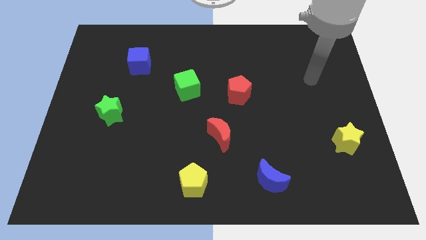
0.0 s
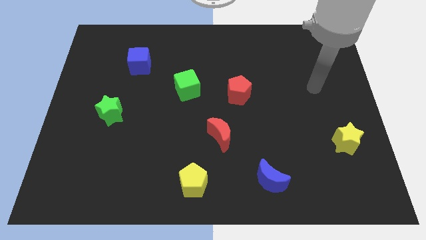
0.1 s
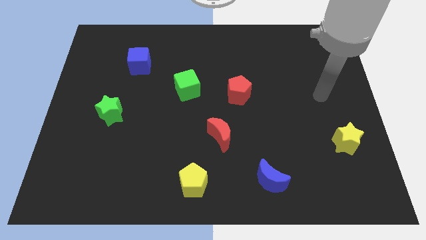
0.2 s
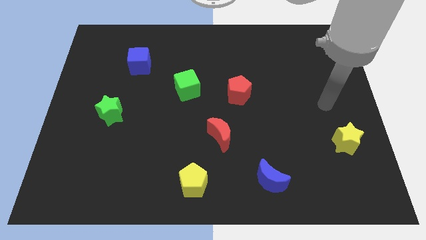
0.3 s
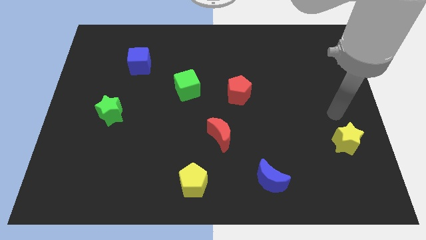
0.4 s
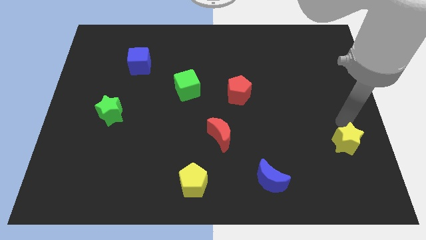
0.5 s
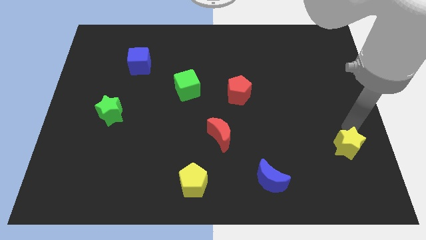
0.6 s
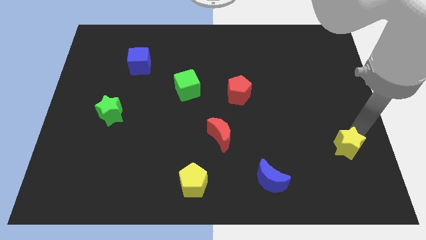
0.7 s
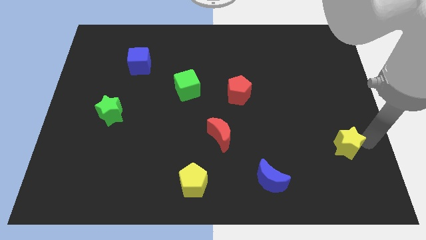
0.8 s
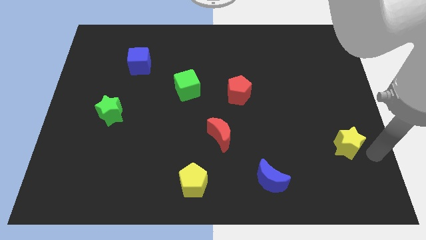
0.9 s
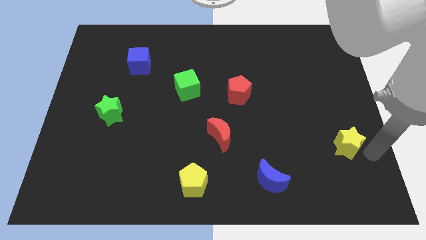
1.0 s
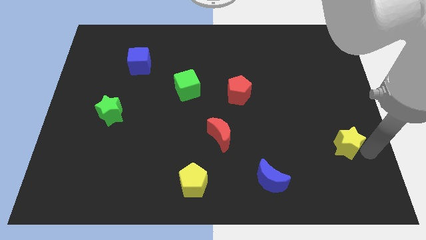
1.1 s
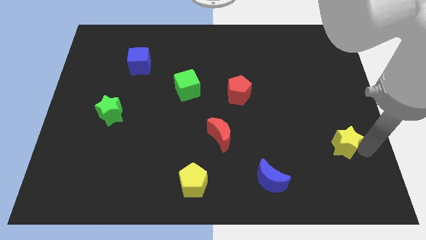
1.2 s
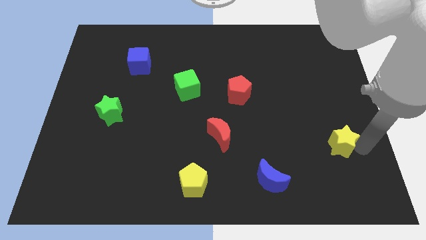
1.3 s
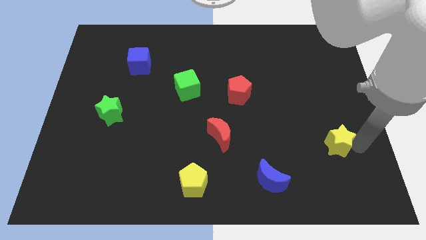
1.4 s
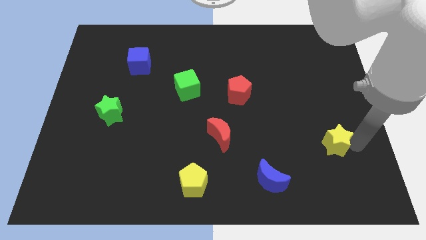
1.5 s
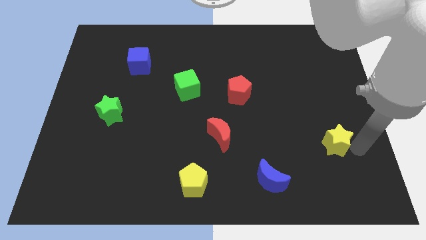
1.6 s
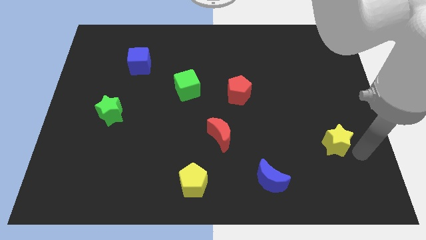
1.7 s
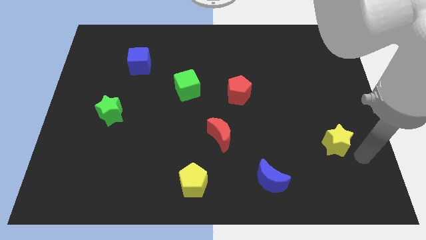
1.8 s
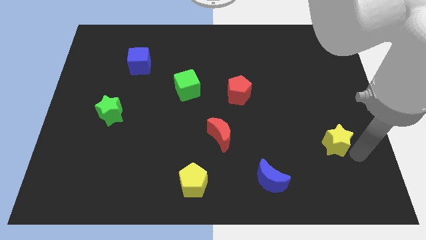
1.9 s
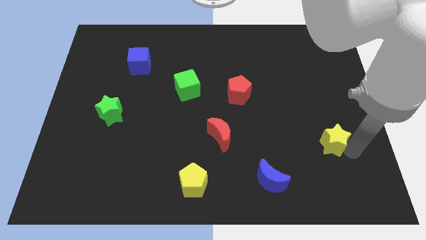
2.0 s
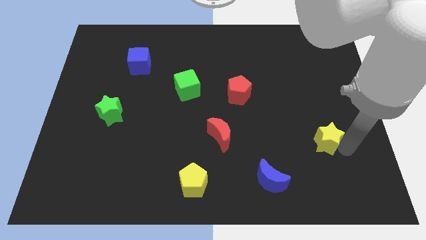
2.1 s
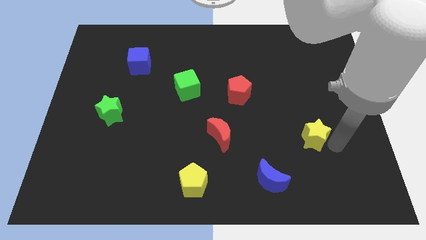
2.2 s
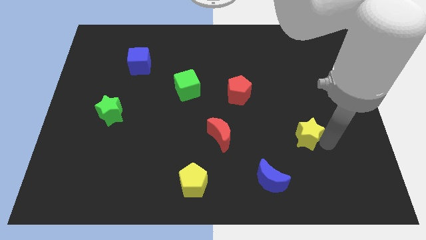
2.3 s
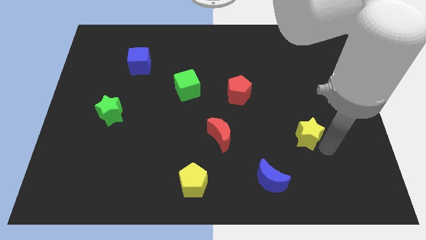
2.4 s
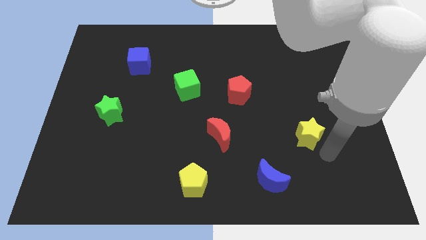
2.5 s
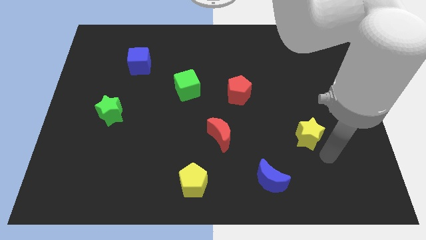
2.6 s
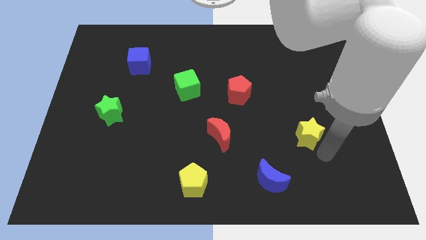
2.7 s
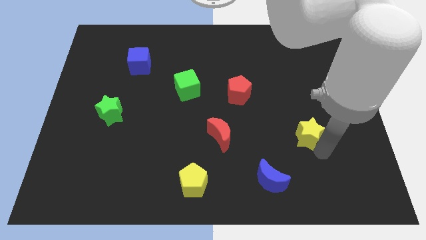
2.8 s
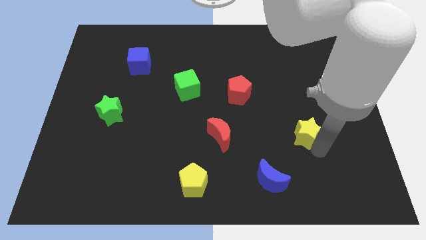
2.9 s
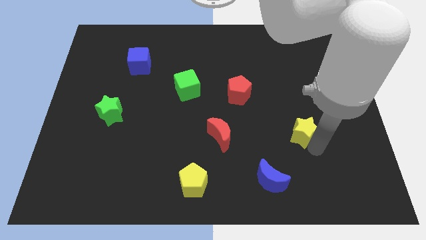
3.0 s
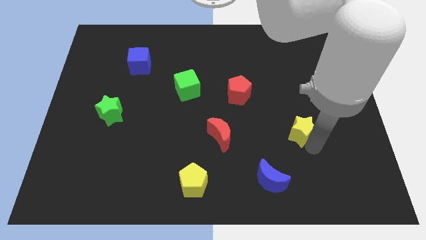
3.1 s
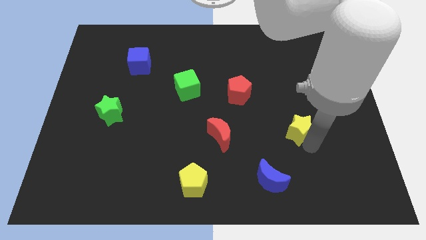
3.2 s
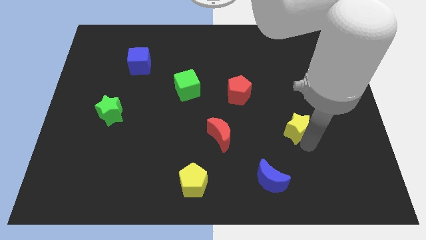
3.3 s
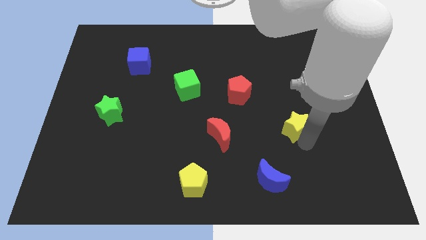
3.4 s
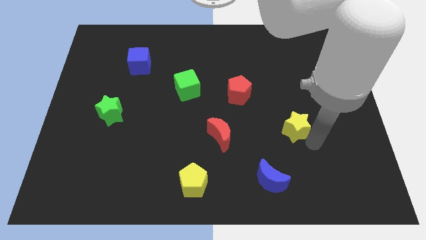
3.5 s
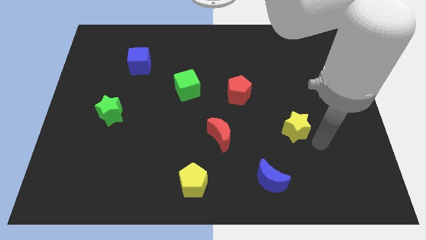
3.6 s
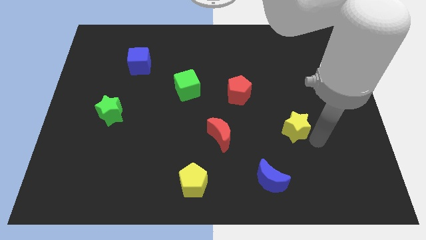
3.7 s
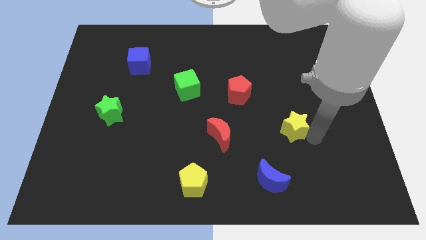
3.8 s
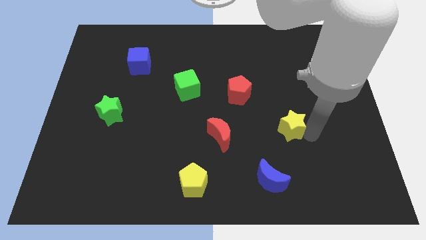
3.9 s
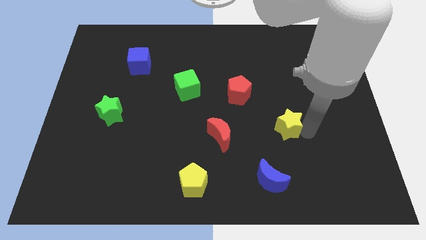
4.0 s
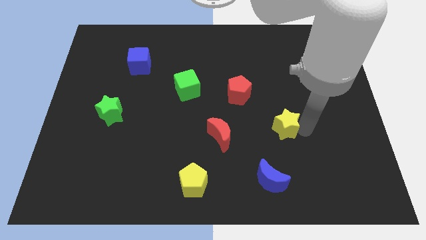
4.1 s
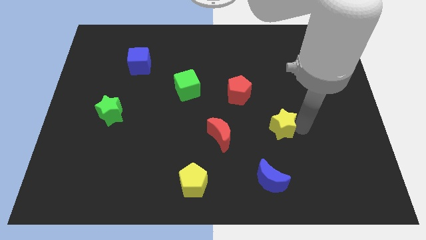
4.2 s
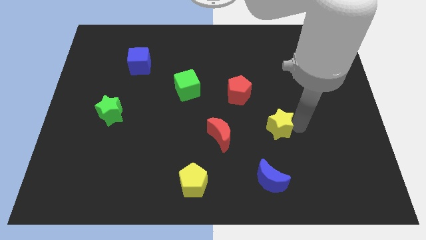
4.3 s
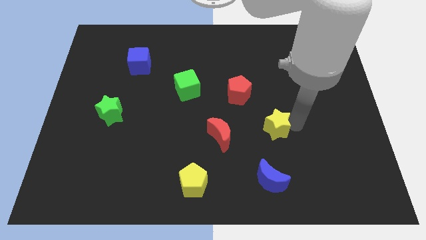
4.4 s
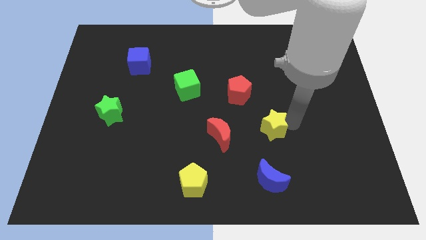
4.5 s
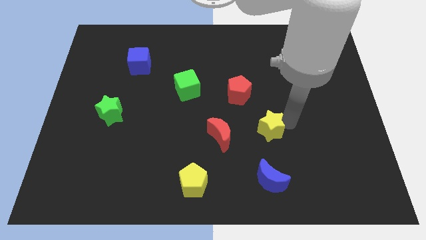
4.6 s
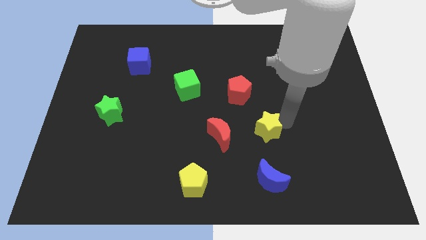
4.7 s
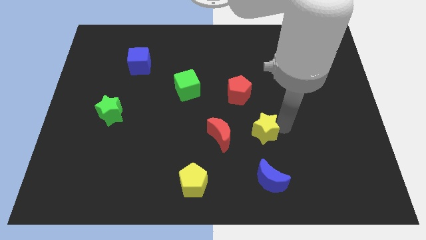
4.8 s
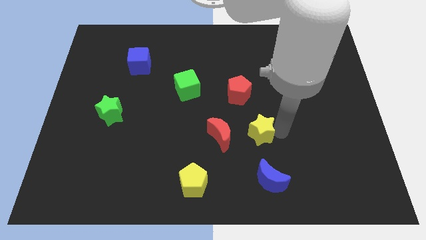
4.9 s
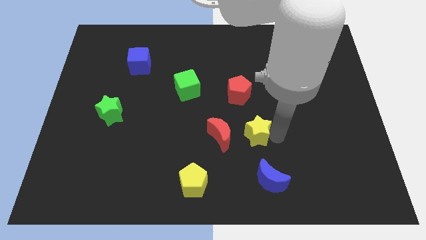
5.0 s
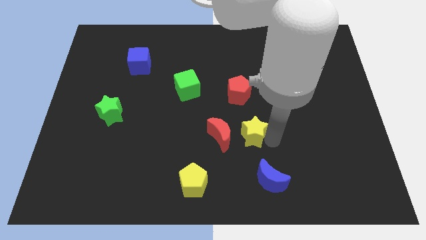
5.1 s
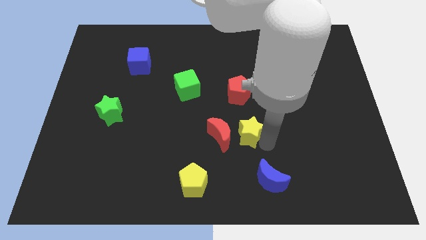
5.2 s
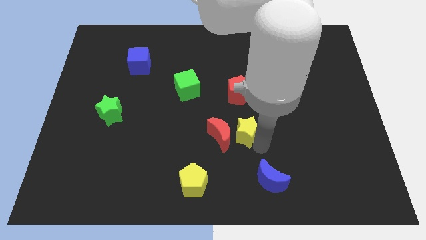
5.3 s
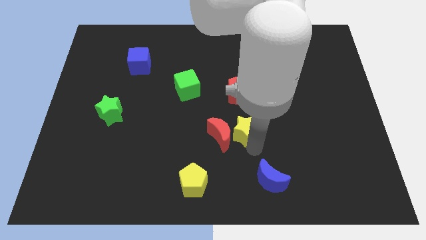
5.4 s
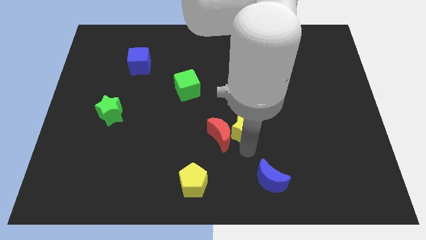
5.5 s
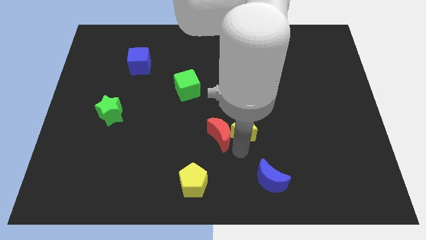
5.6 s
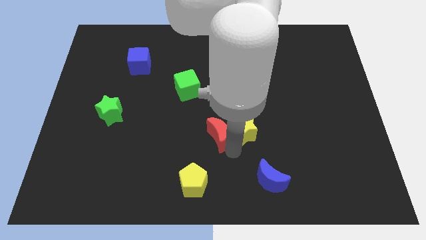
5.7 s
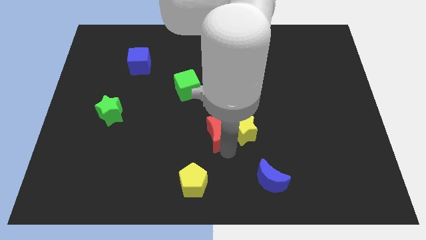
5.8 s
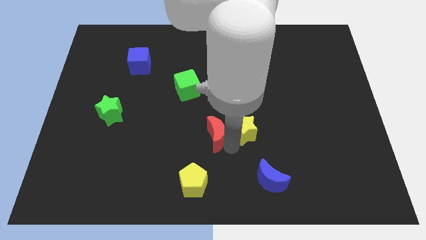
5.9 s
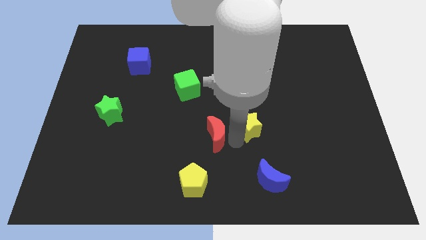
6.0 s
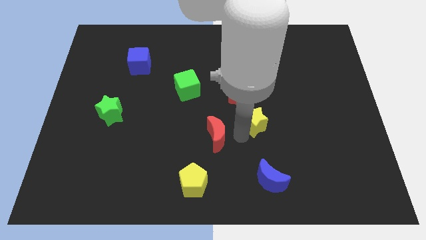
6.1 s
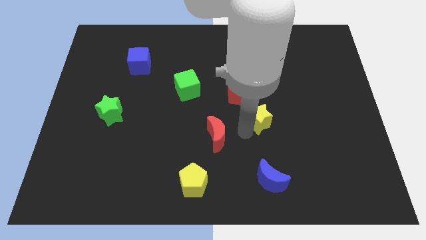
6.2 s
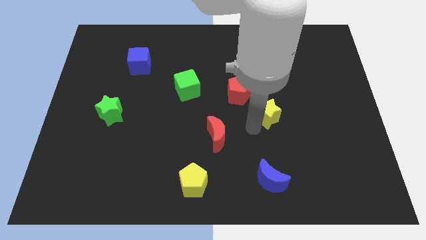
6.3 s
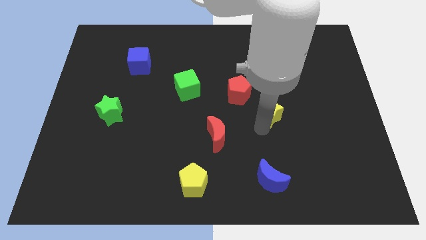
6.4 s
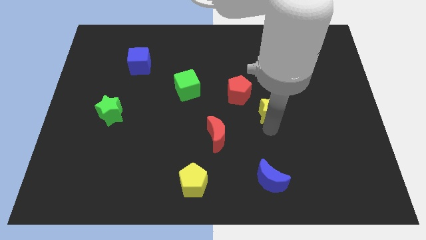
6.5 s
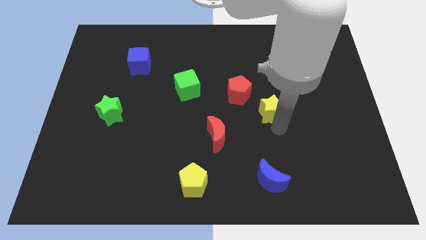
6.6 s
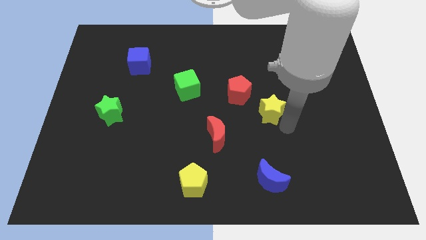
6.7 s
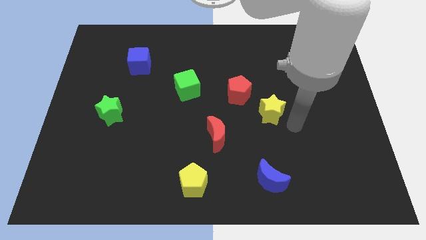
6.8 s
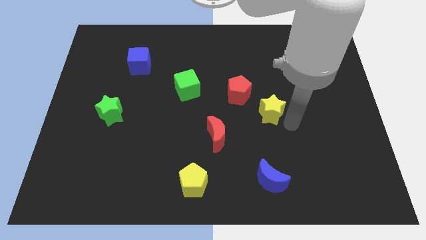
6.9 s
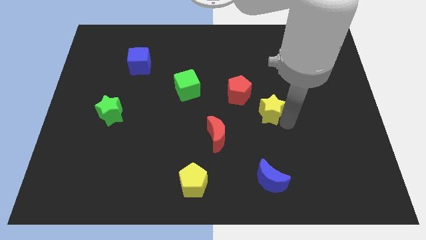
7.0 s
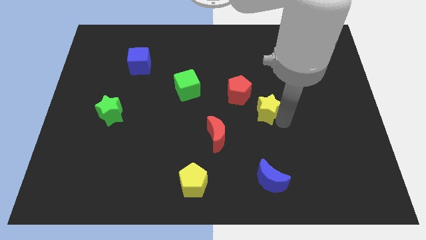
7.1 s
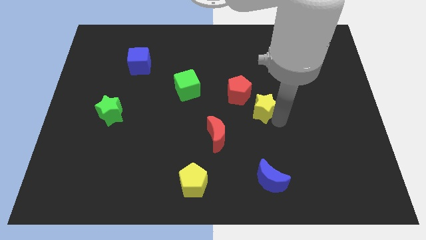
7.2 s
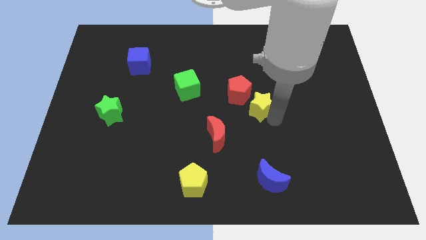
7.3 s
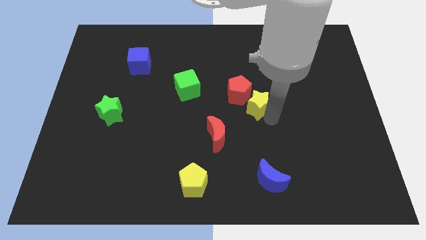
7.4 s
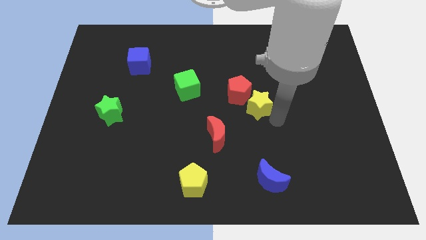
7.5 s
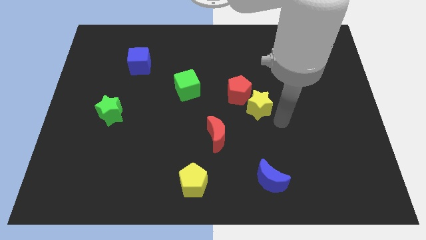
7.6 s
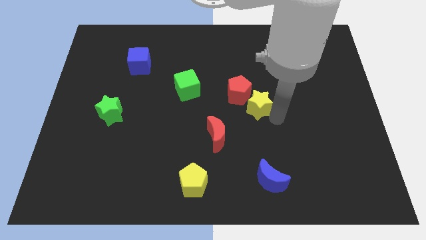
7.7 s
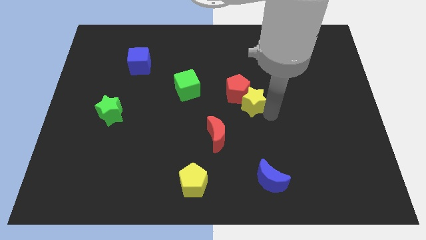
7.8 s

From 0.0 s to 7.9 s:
put the yellow star to the red pentagon
